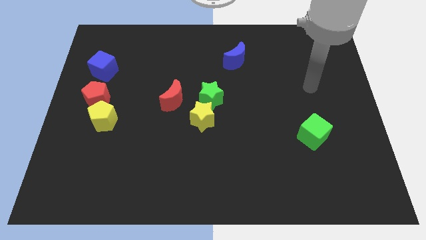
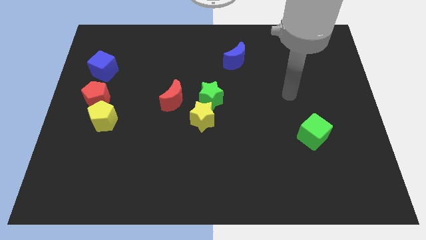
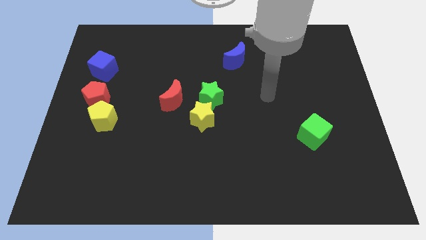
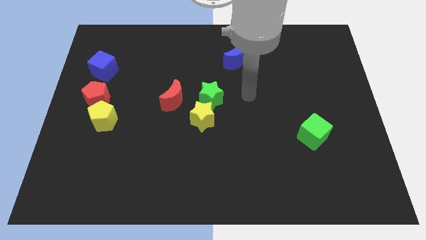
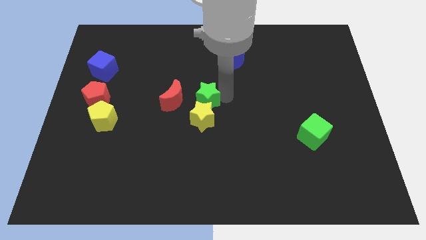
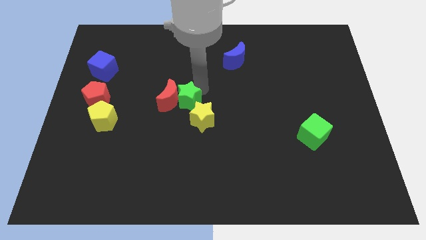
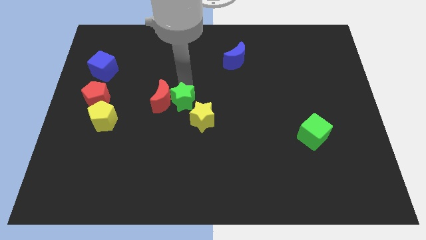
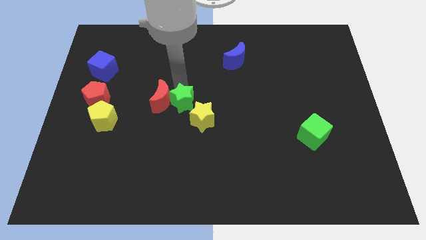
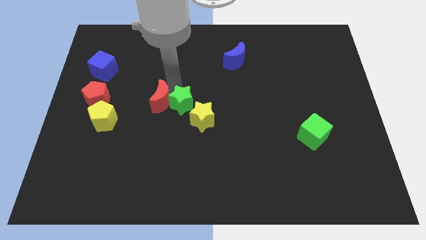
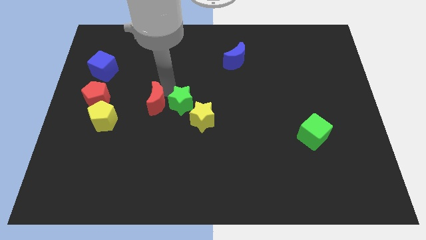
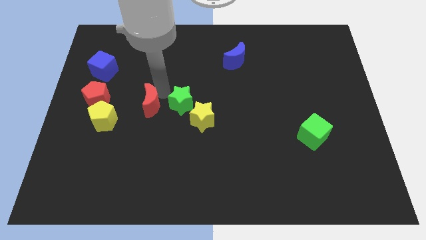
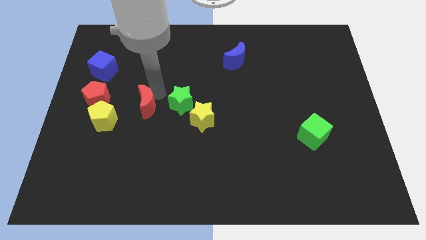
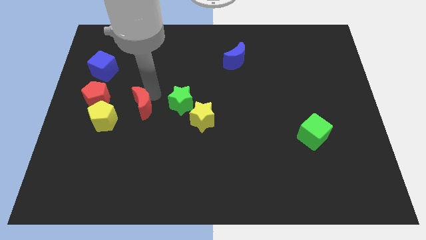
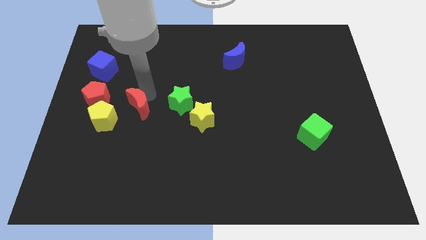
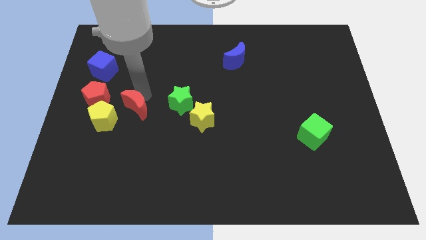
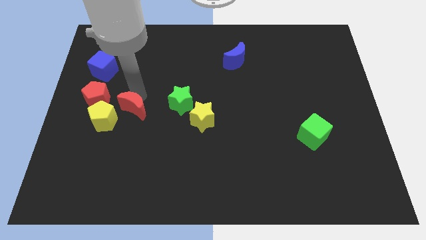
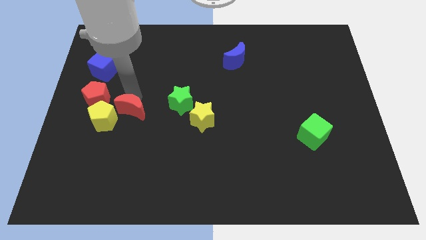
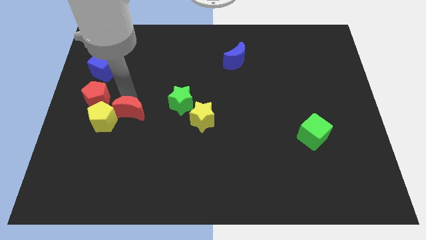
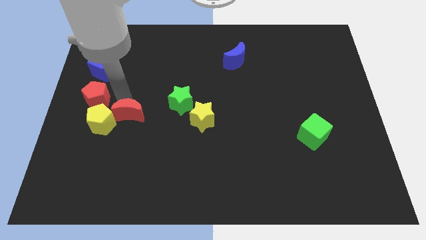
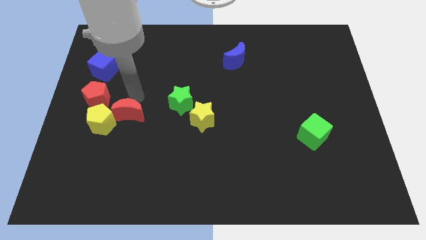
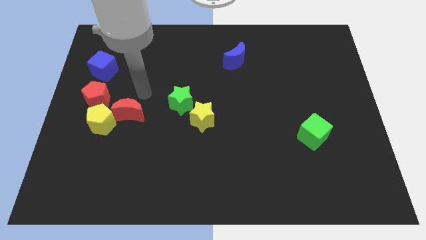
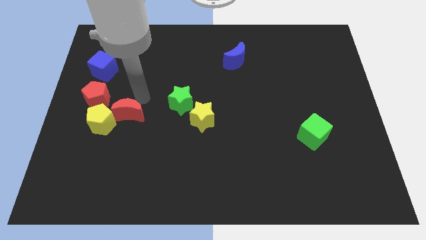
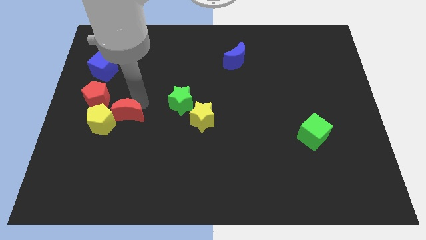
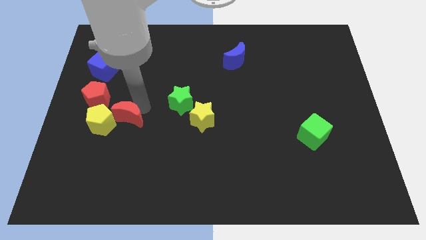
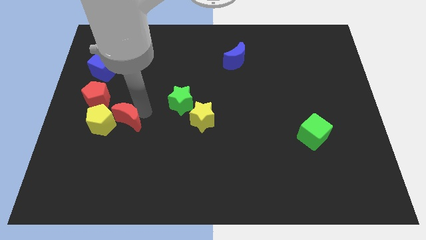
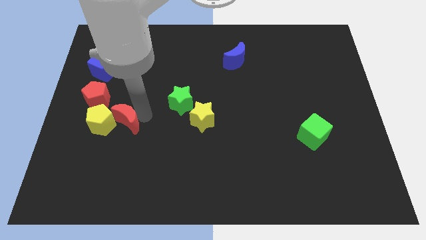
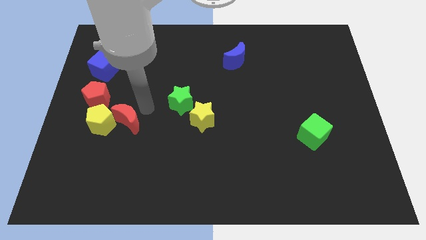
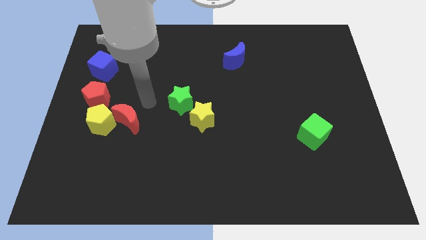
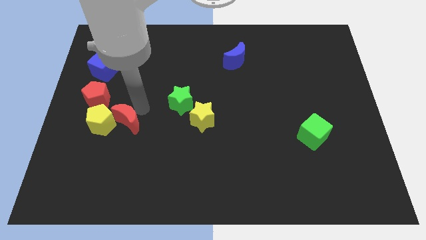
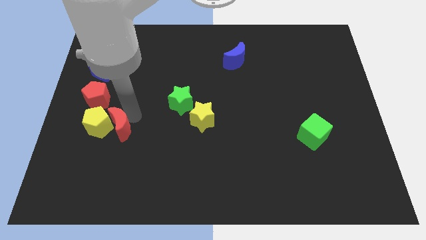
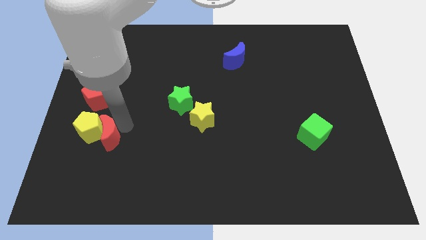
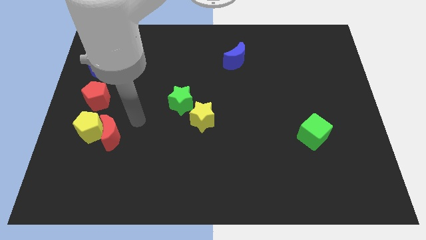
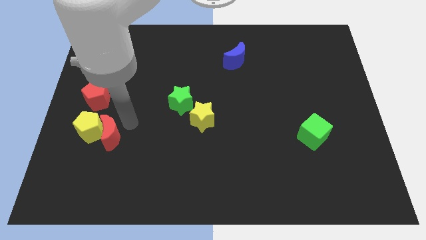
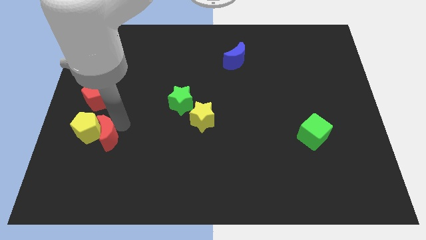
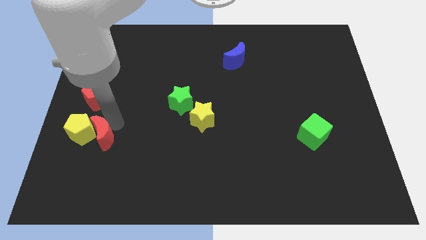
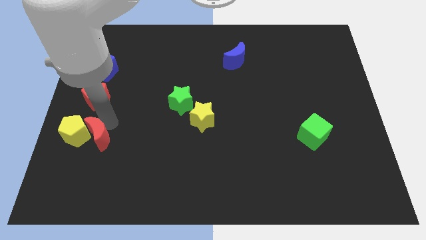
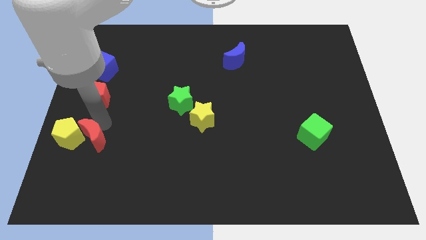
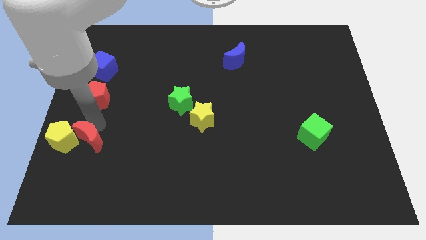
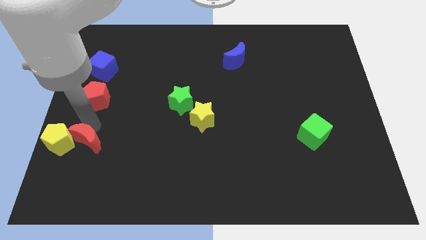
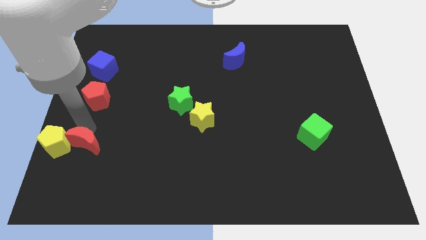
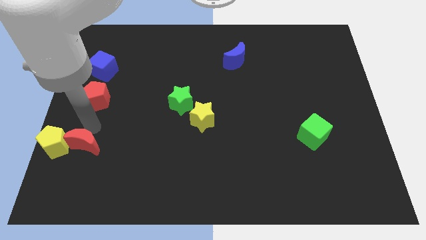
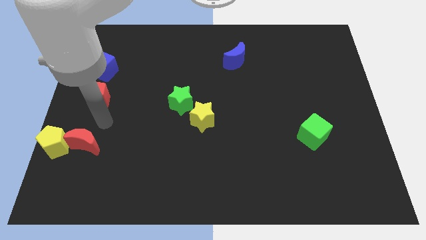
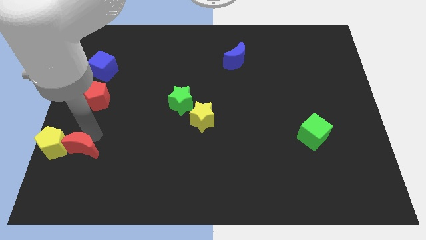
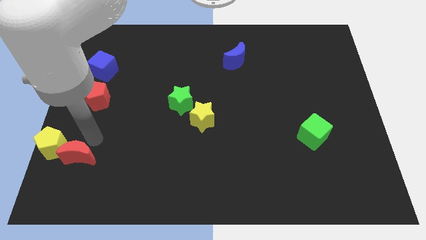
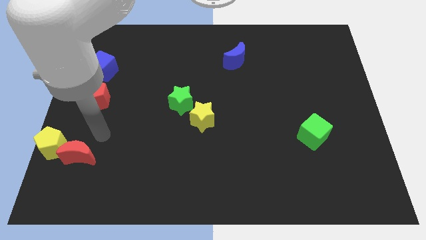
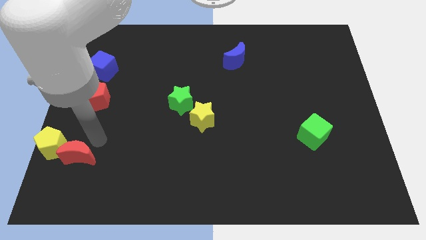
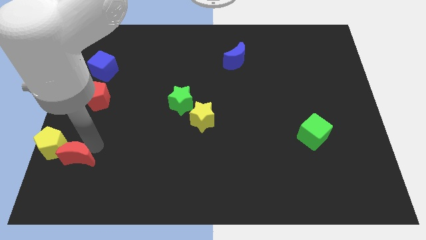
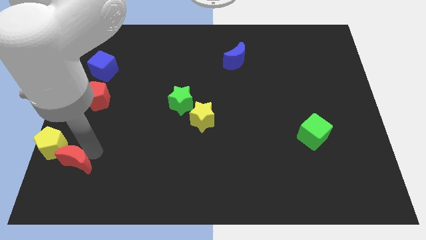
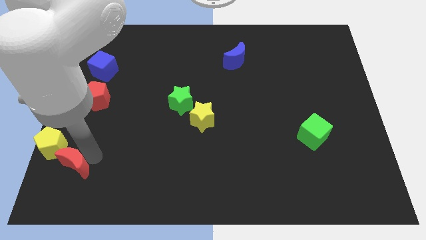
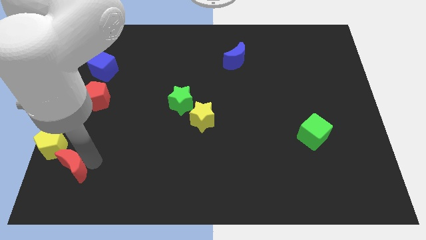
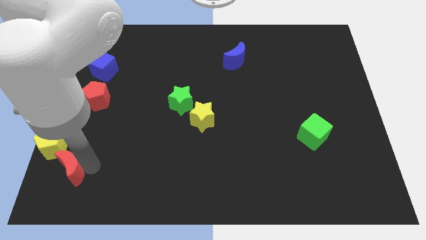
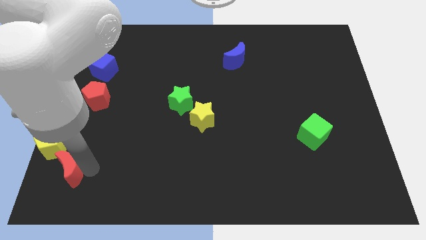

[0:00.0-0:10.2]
push the red moon to the bottom left of the board

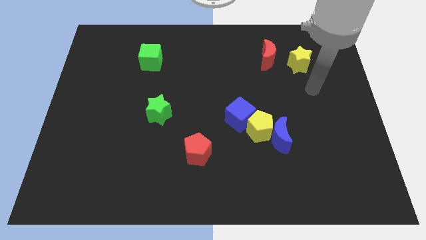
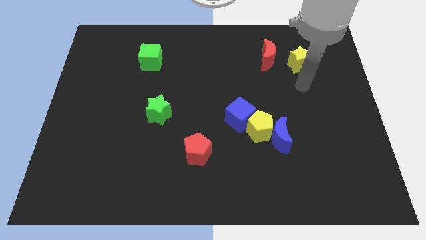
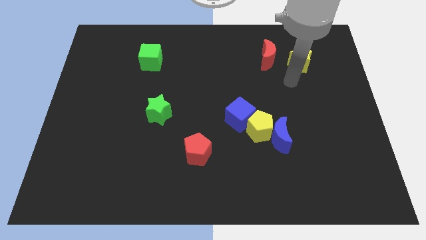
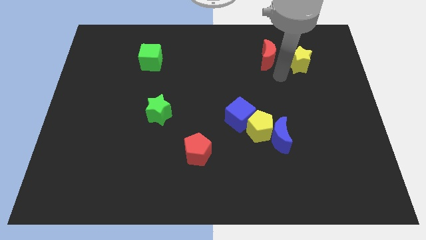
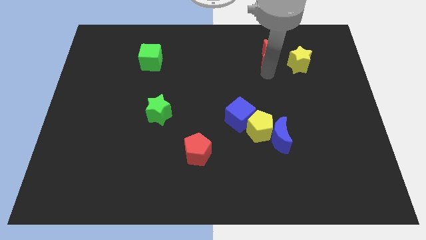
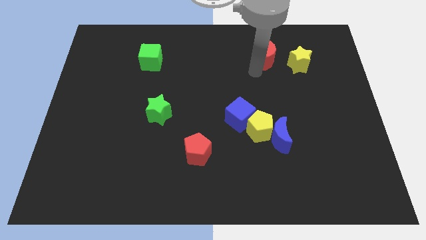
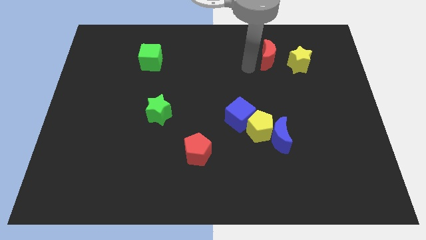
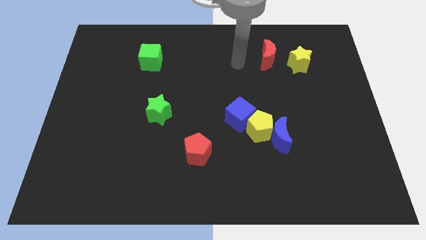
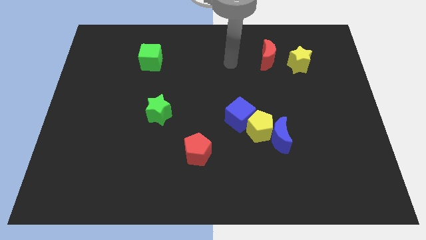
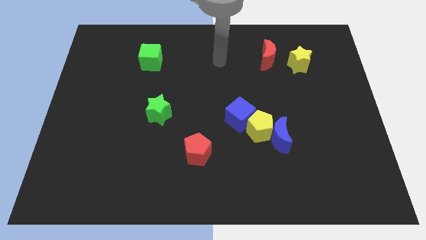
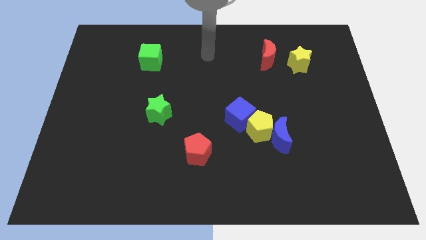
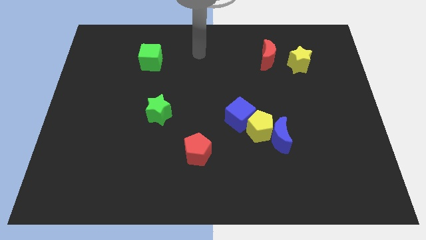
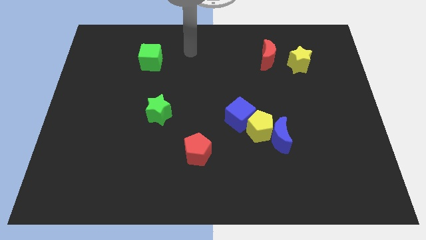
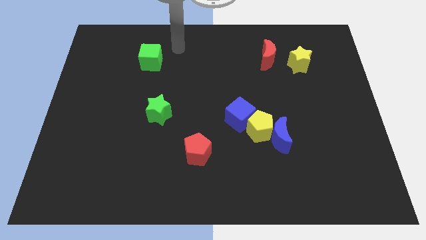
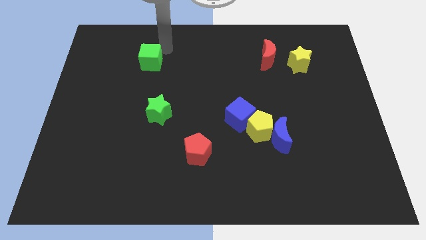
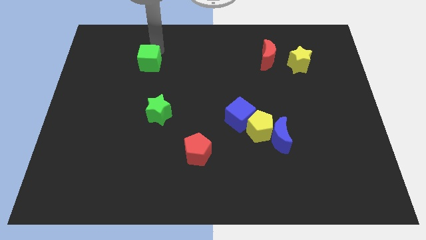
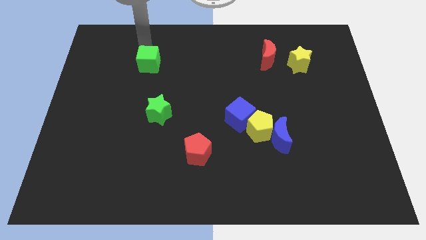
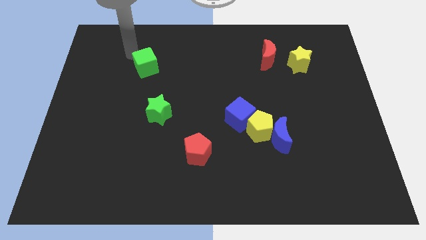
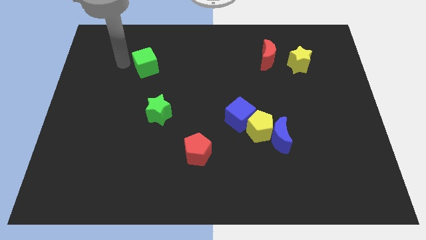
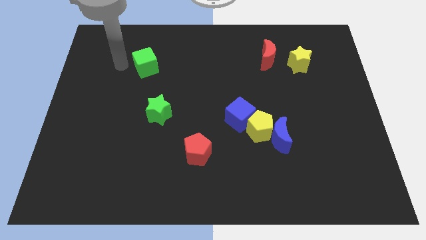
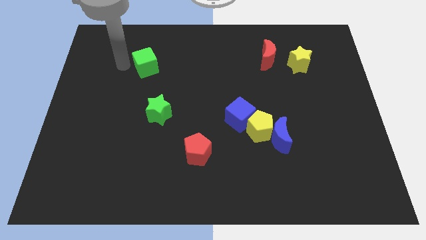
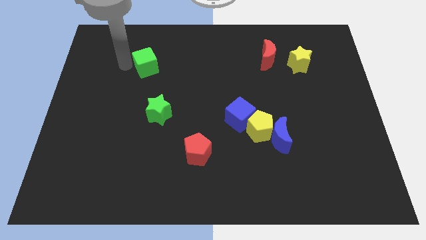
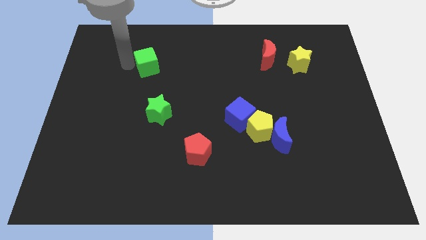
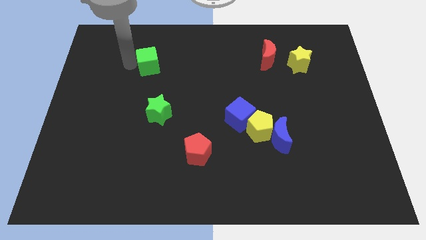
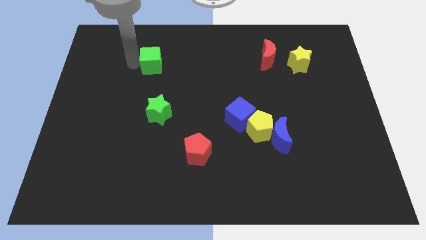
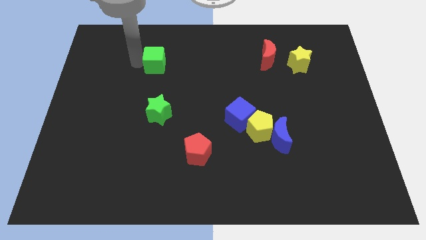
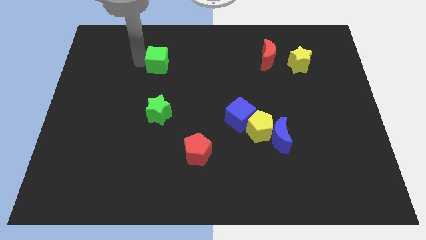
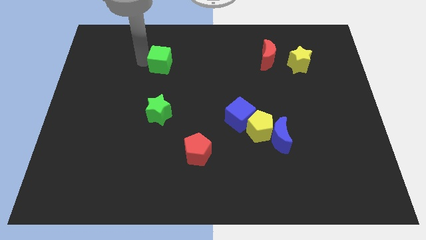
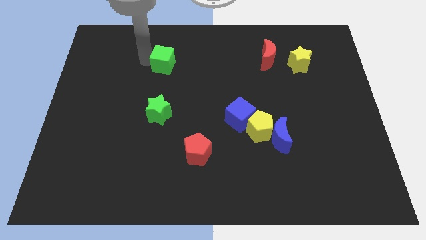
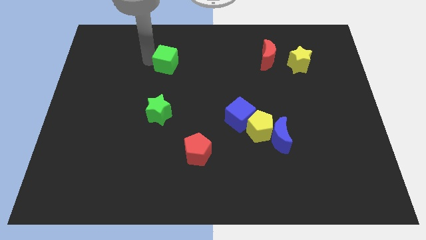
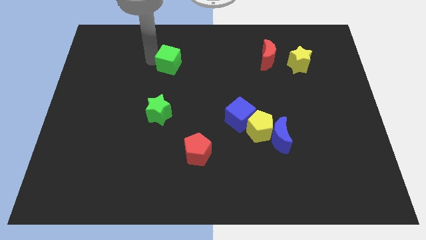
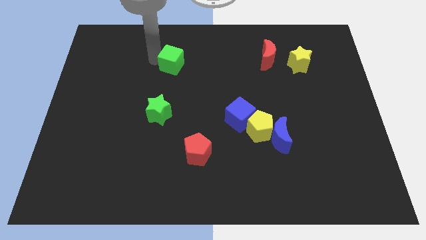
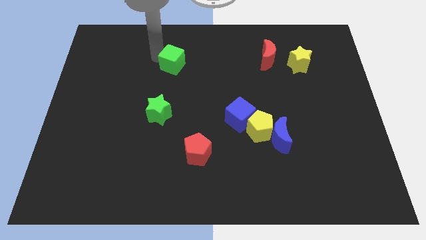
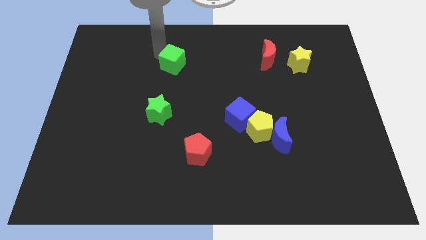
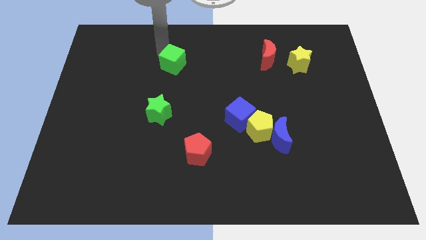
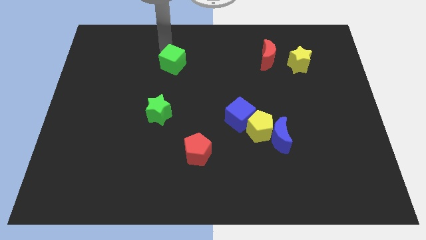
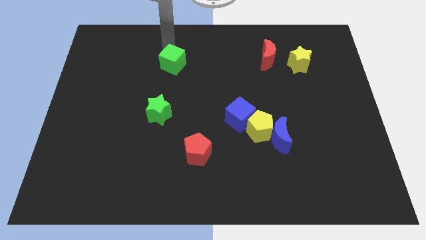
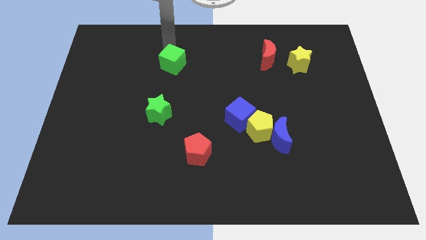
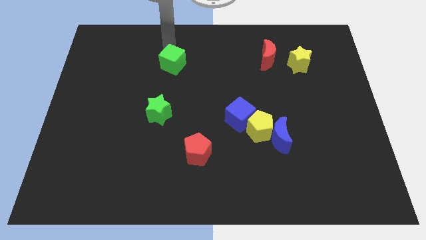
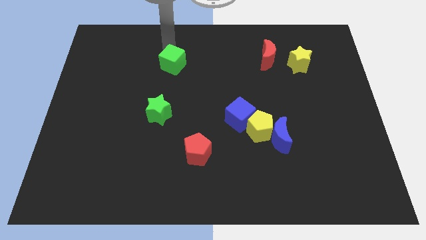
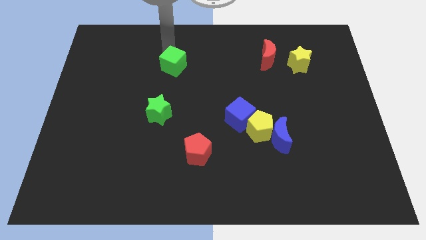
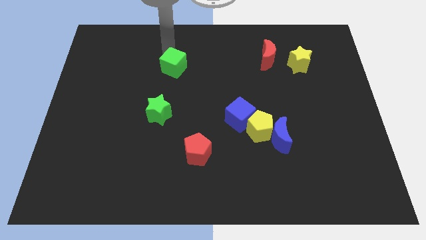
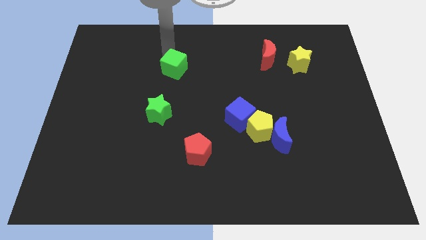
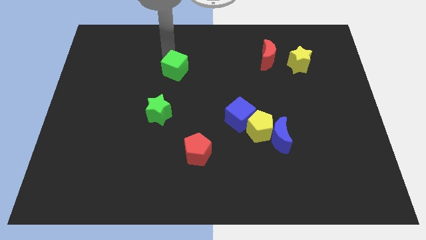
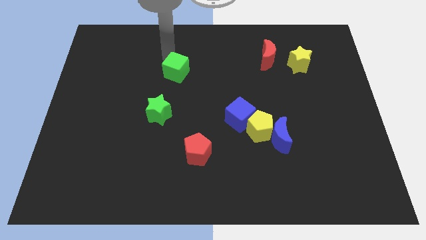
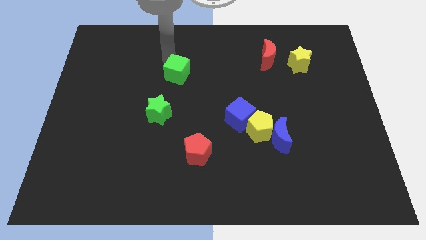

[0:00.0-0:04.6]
put the green cube to the center of the board
